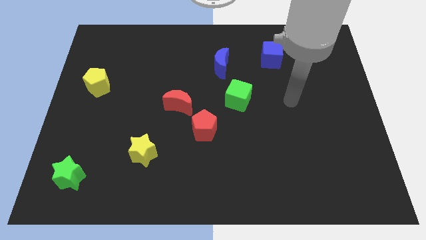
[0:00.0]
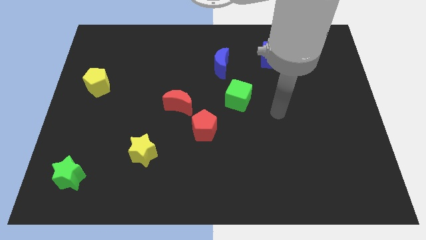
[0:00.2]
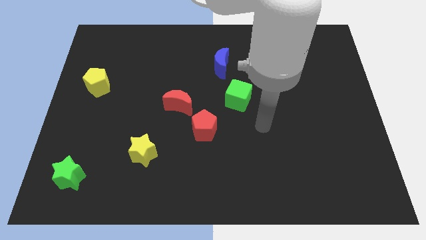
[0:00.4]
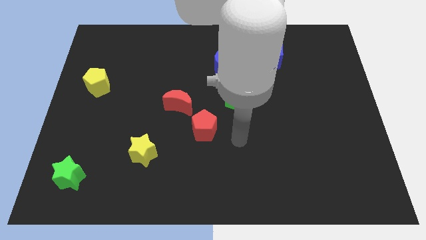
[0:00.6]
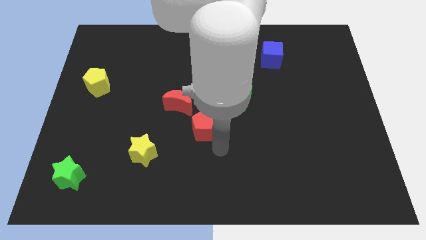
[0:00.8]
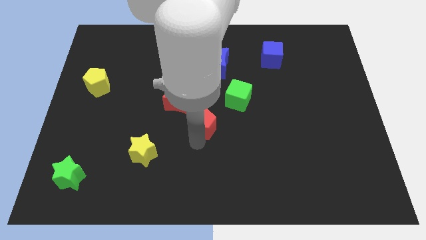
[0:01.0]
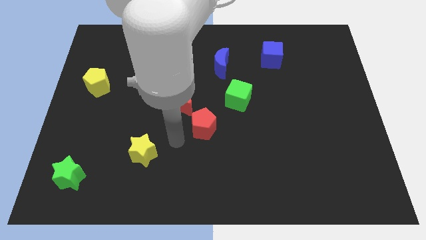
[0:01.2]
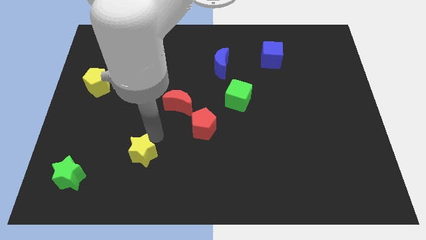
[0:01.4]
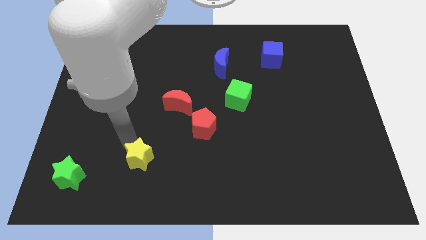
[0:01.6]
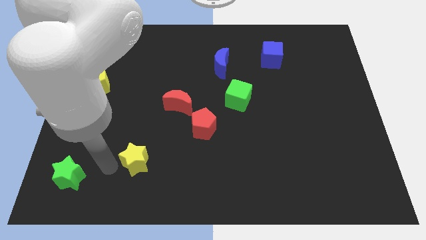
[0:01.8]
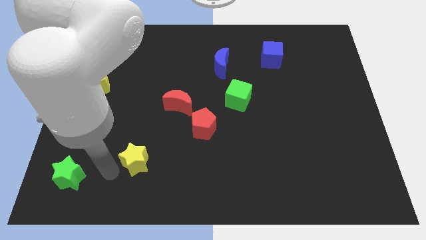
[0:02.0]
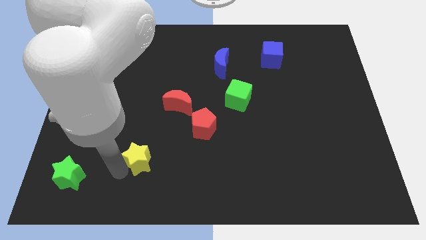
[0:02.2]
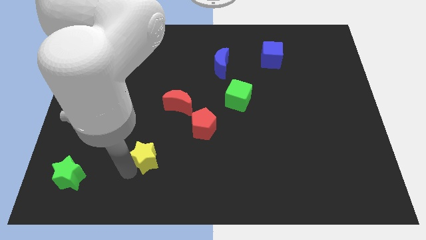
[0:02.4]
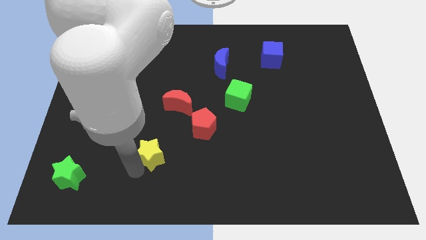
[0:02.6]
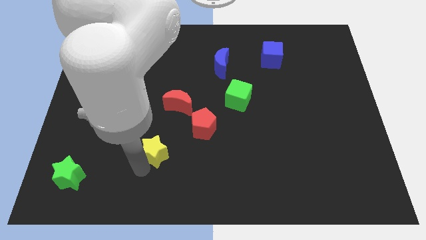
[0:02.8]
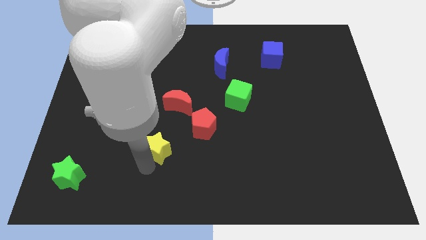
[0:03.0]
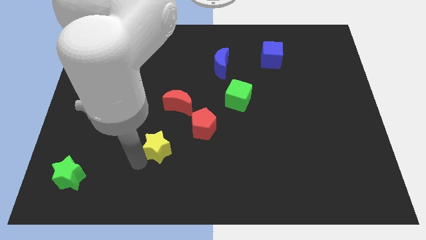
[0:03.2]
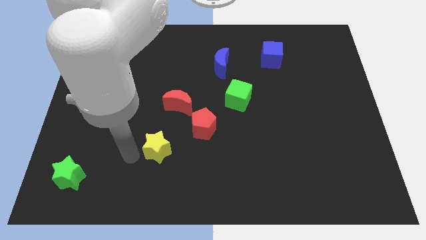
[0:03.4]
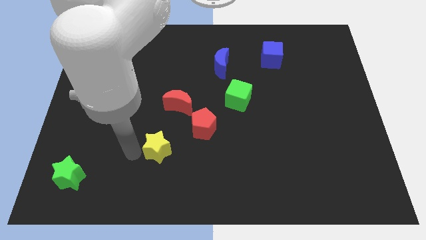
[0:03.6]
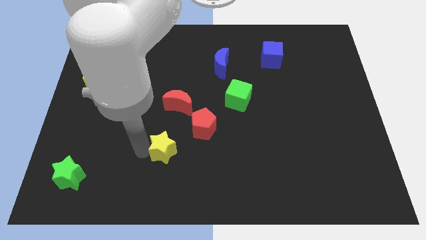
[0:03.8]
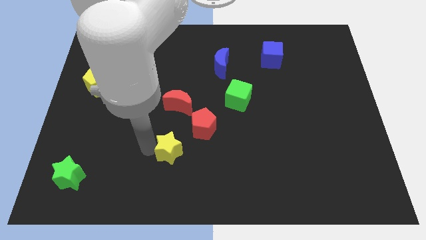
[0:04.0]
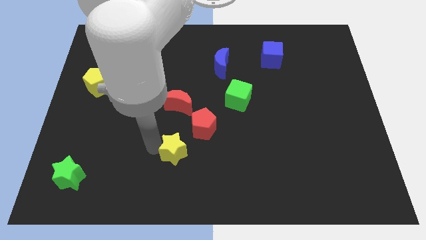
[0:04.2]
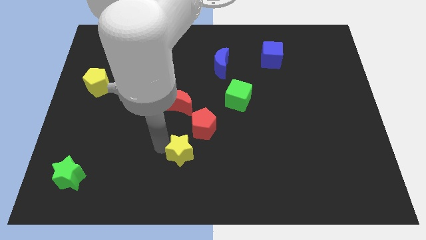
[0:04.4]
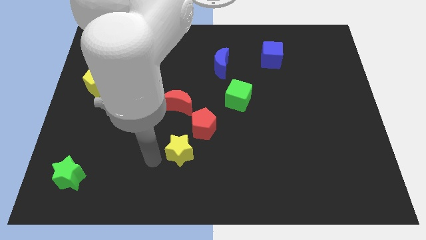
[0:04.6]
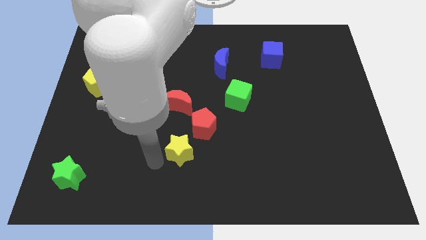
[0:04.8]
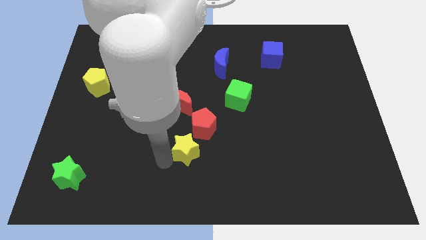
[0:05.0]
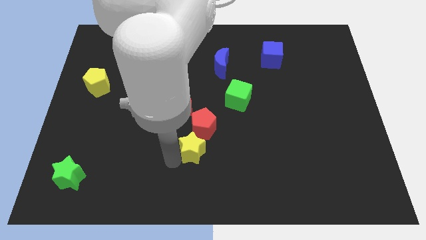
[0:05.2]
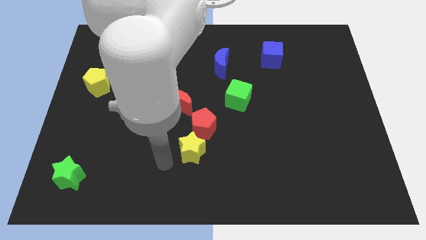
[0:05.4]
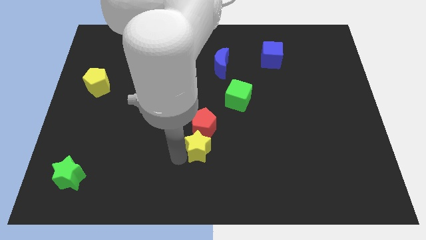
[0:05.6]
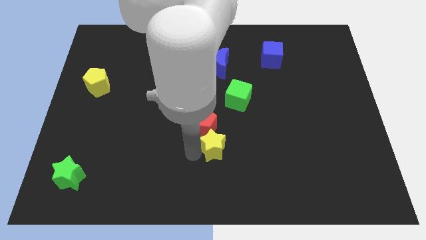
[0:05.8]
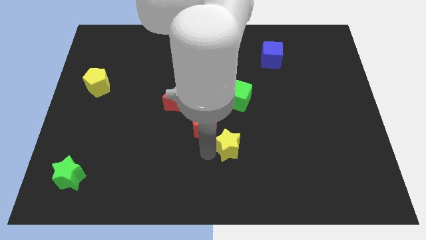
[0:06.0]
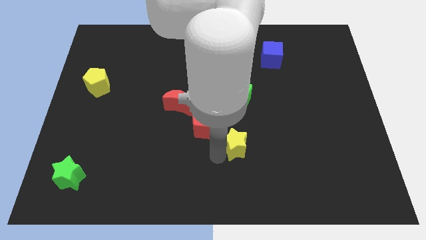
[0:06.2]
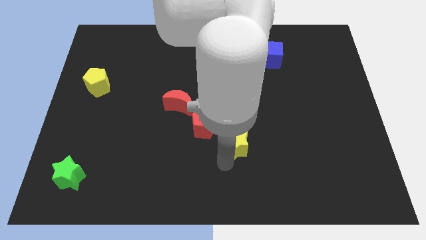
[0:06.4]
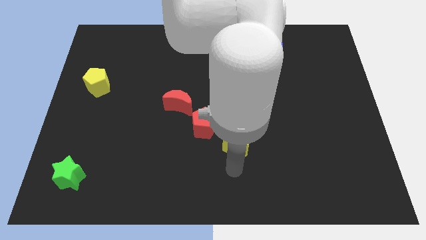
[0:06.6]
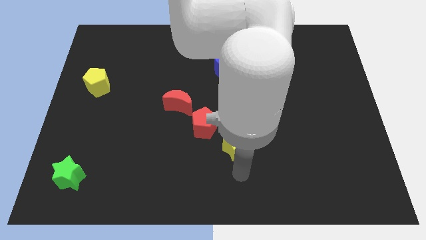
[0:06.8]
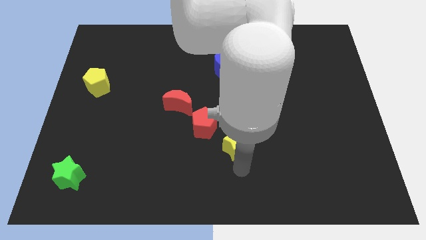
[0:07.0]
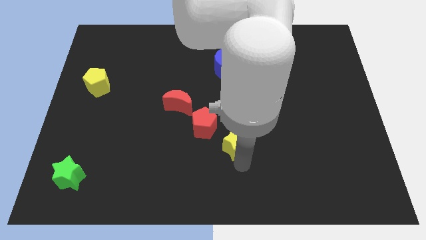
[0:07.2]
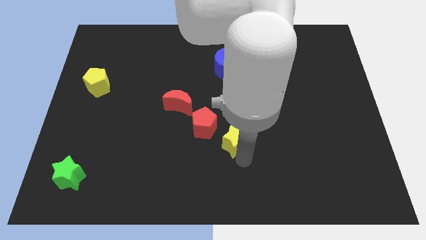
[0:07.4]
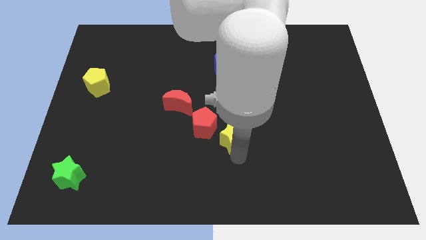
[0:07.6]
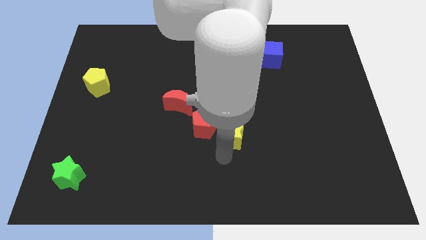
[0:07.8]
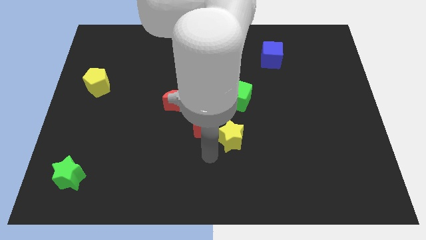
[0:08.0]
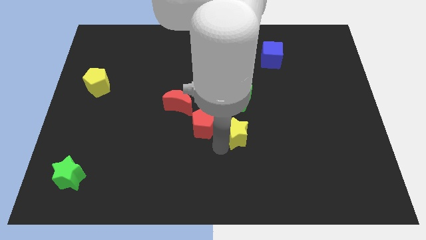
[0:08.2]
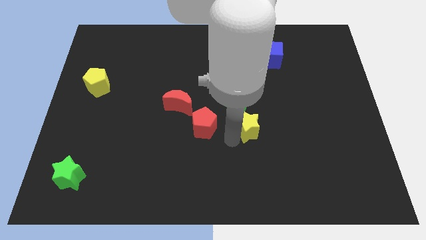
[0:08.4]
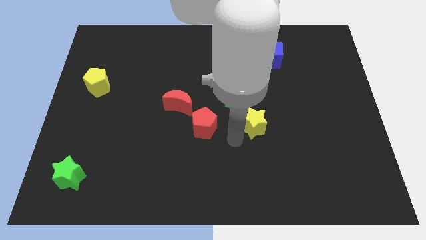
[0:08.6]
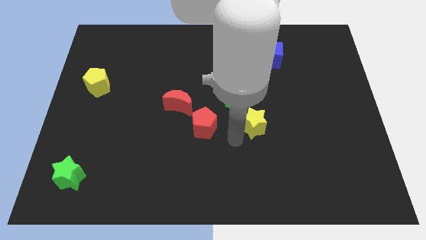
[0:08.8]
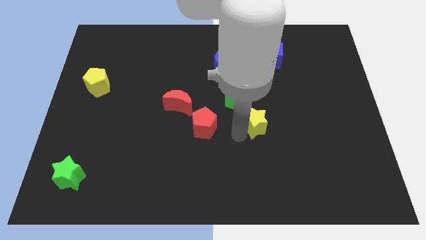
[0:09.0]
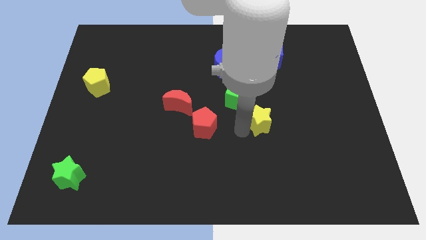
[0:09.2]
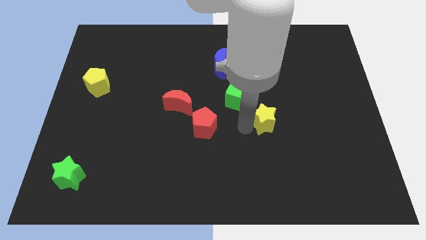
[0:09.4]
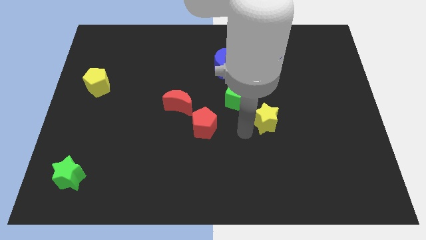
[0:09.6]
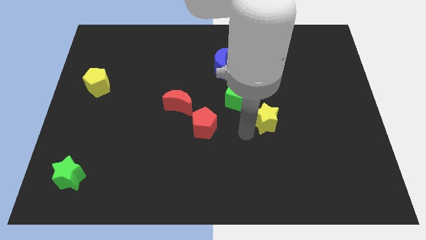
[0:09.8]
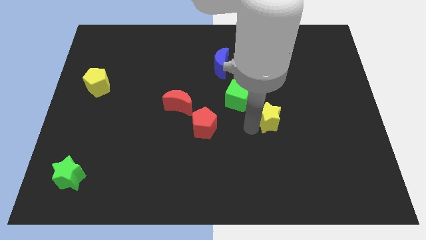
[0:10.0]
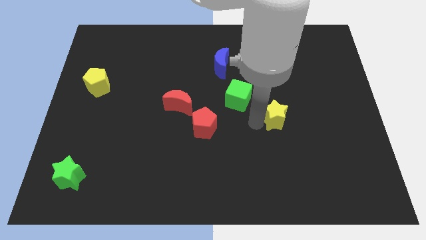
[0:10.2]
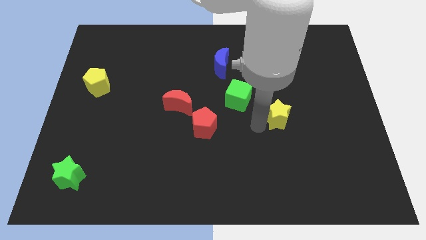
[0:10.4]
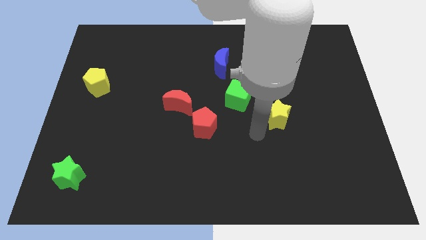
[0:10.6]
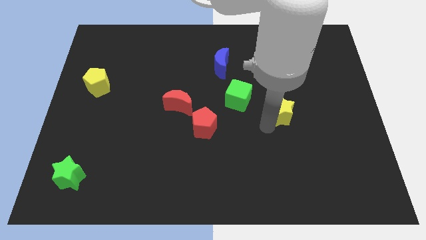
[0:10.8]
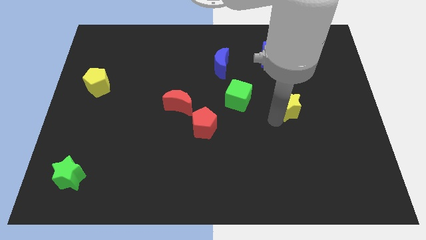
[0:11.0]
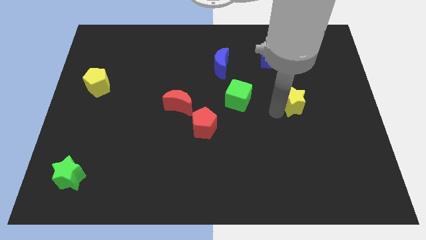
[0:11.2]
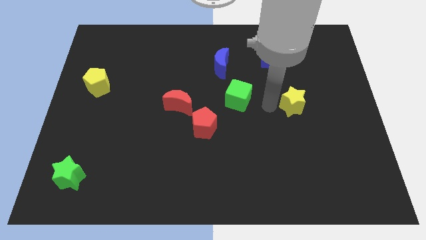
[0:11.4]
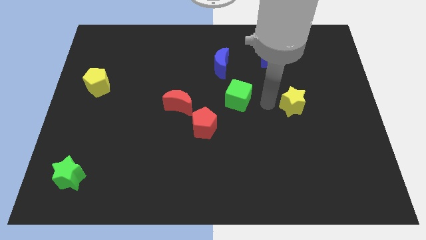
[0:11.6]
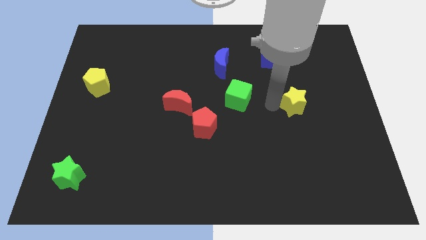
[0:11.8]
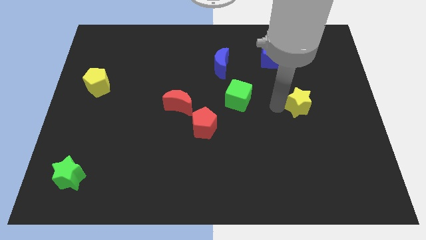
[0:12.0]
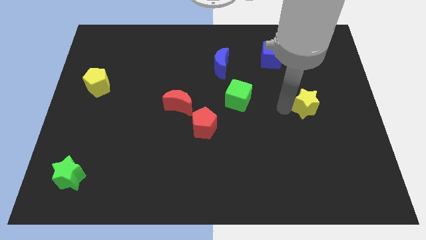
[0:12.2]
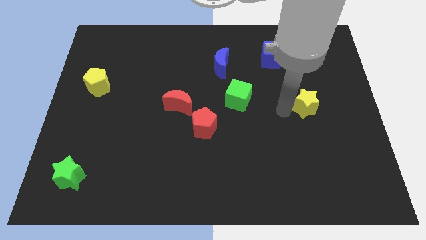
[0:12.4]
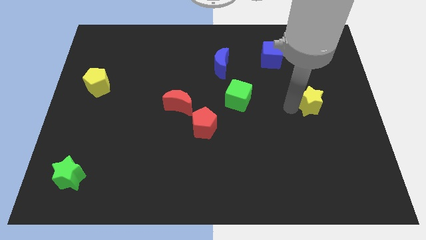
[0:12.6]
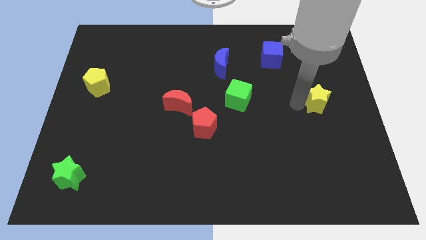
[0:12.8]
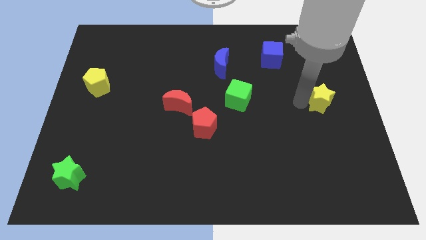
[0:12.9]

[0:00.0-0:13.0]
move the yellow star to the right side of the board
